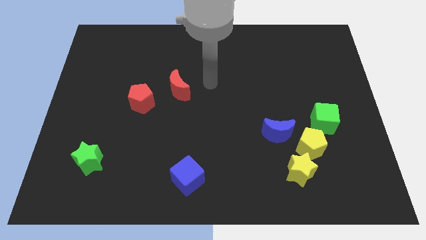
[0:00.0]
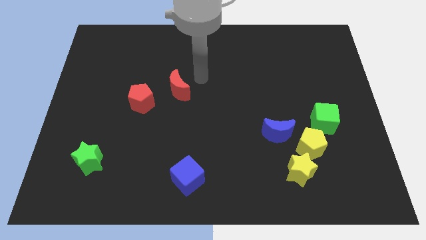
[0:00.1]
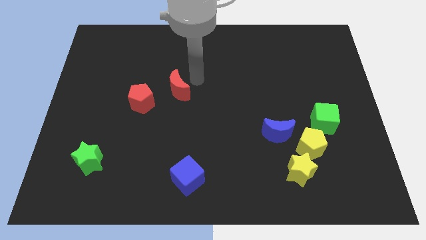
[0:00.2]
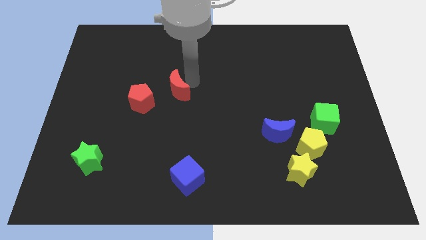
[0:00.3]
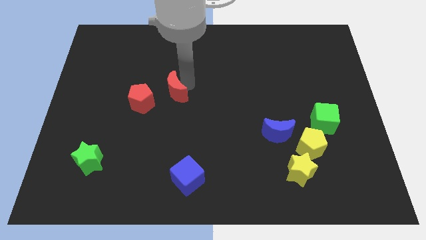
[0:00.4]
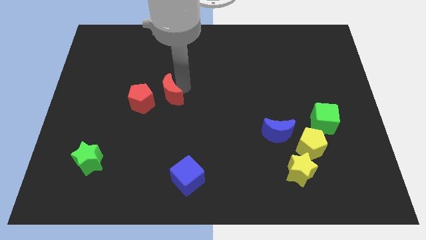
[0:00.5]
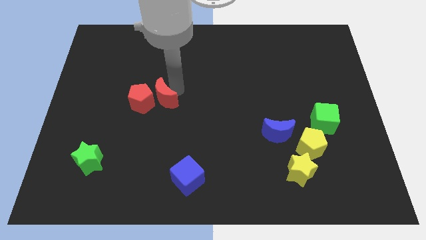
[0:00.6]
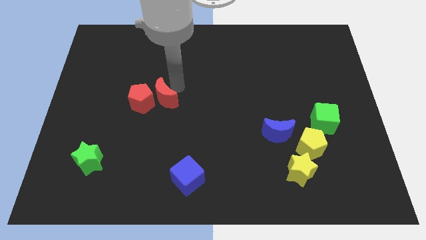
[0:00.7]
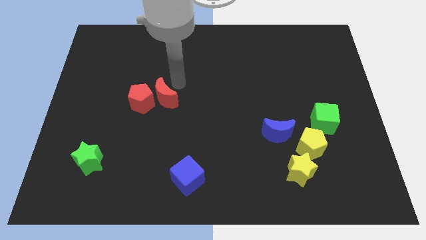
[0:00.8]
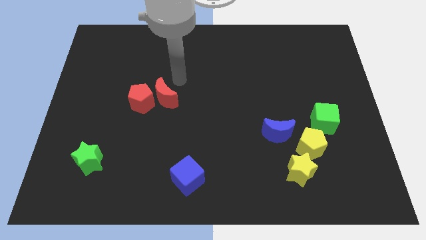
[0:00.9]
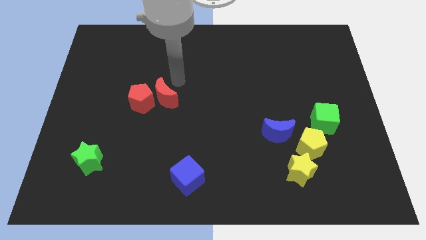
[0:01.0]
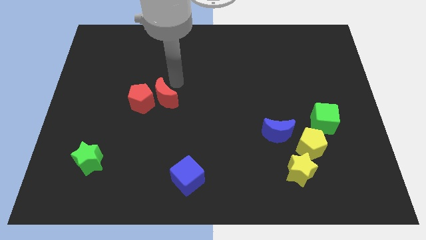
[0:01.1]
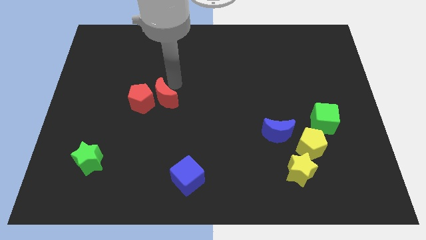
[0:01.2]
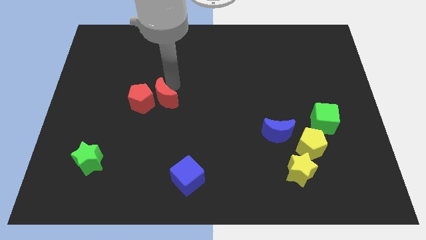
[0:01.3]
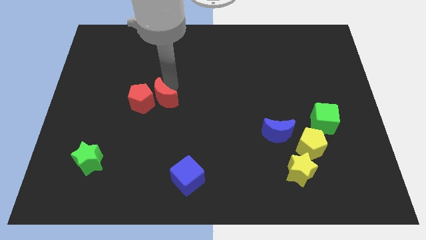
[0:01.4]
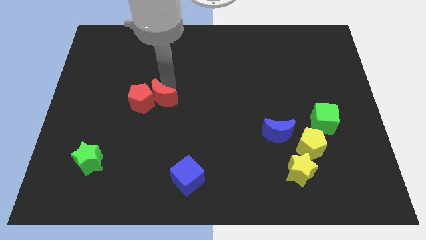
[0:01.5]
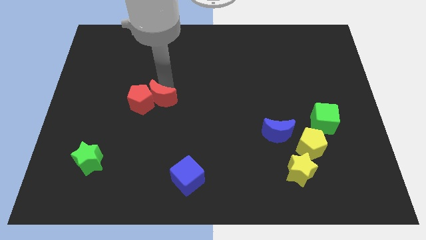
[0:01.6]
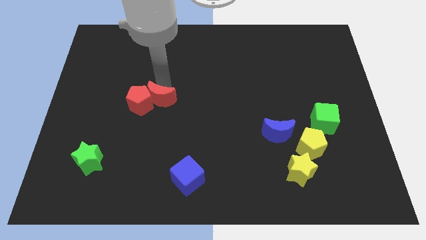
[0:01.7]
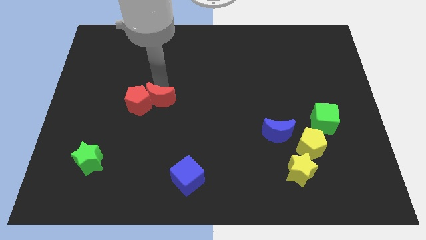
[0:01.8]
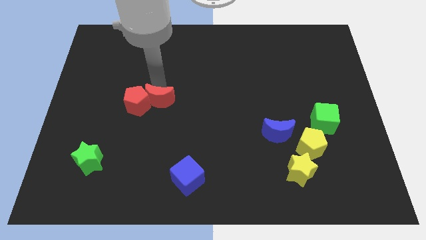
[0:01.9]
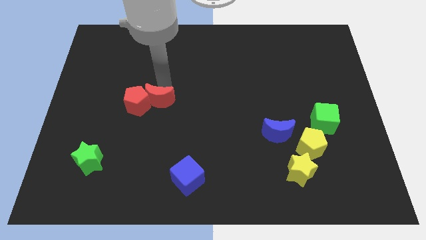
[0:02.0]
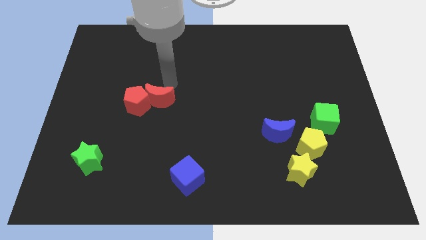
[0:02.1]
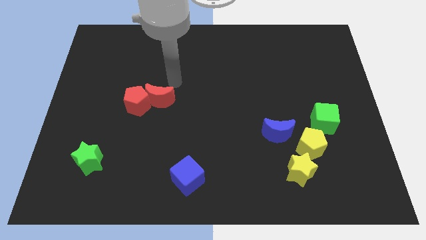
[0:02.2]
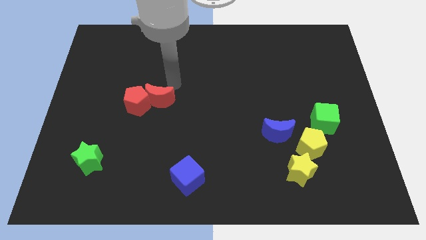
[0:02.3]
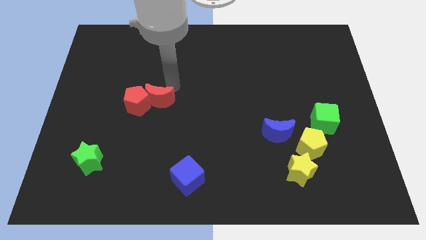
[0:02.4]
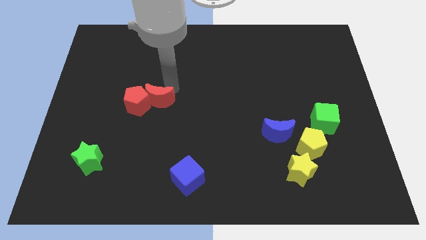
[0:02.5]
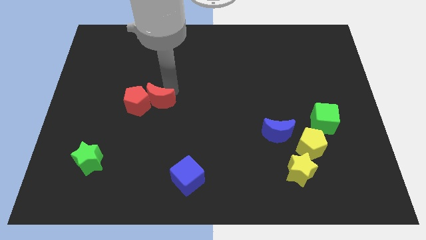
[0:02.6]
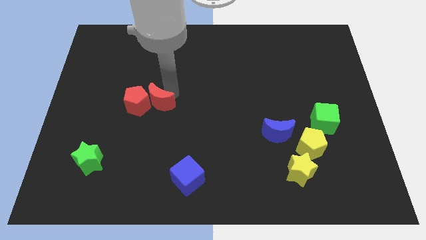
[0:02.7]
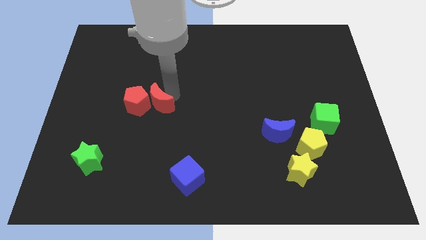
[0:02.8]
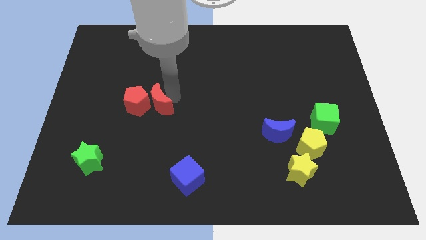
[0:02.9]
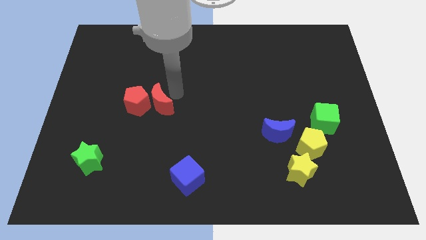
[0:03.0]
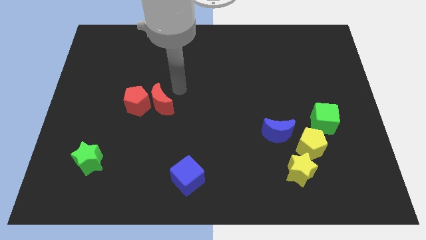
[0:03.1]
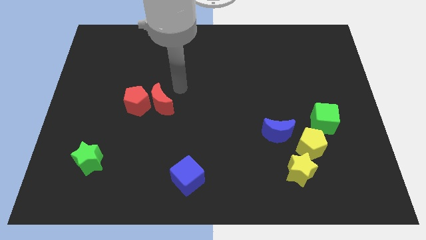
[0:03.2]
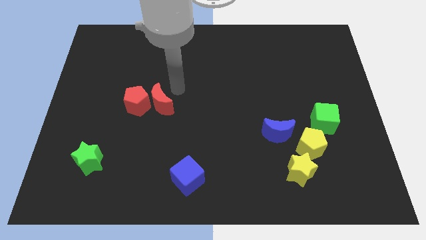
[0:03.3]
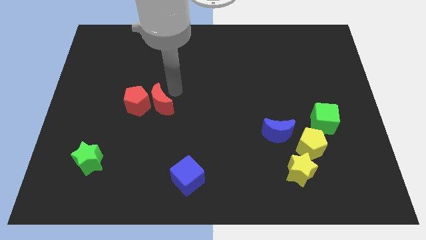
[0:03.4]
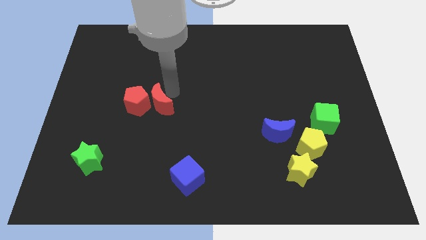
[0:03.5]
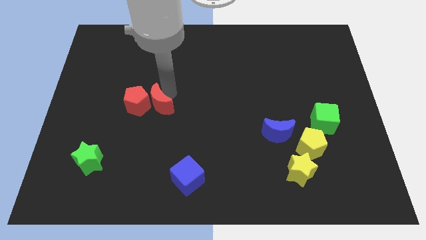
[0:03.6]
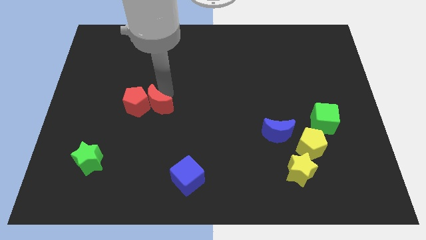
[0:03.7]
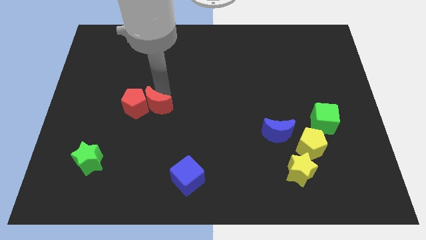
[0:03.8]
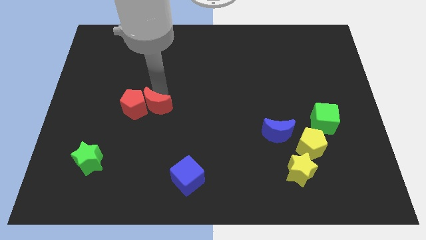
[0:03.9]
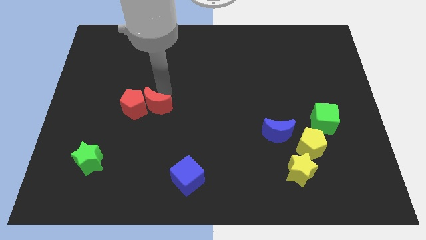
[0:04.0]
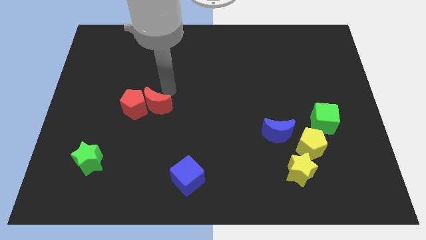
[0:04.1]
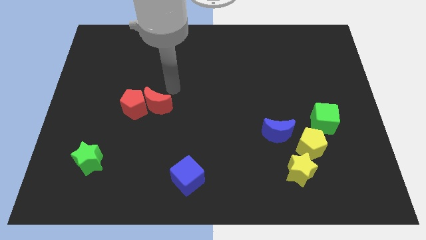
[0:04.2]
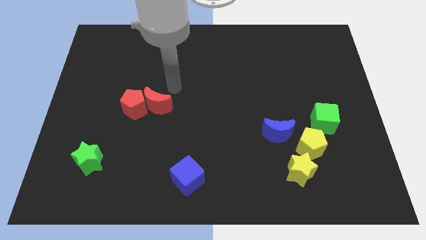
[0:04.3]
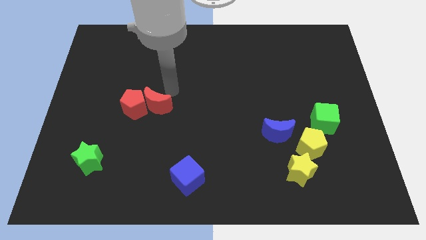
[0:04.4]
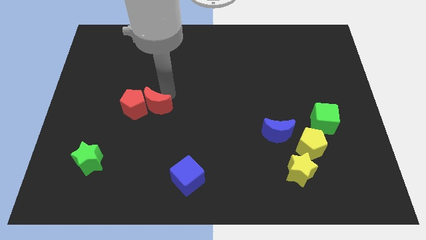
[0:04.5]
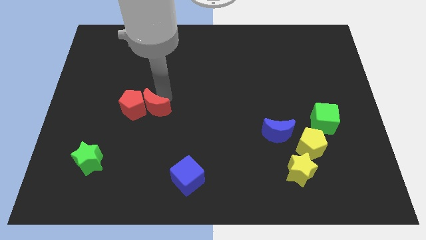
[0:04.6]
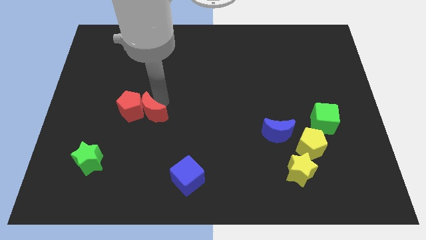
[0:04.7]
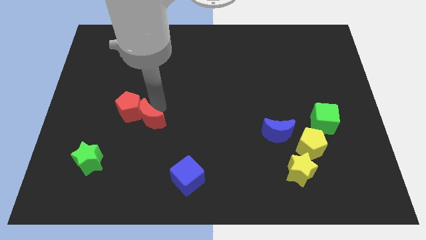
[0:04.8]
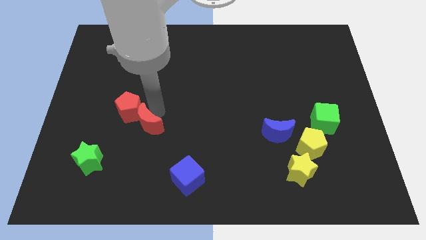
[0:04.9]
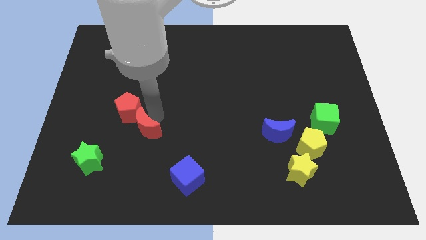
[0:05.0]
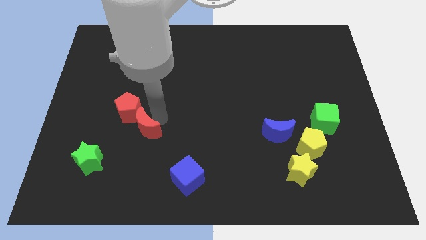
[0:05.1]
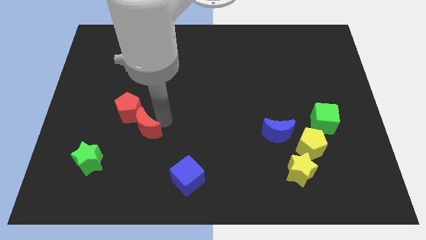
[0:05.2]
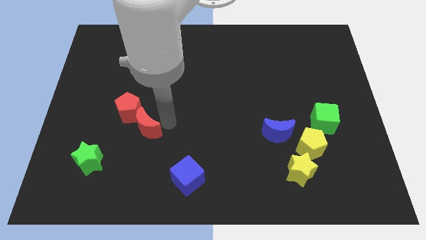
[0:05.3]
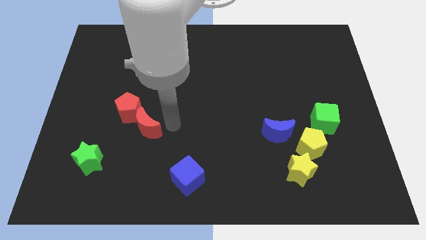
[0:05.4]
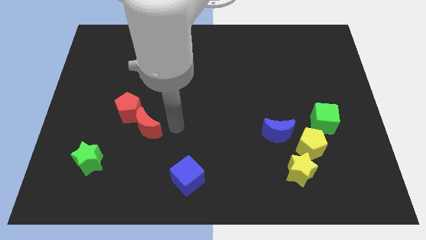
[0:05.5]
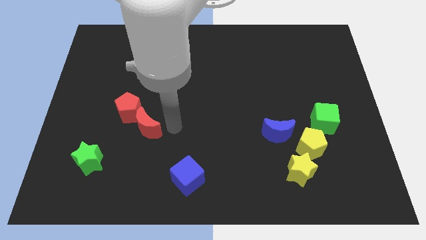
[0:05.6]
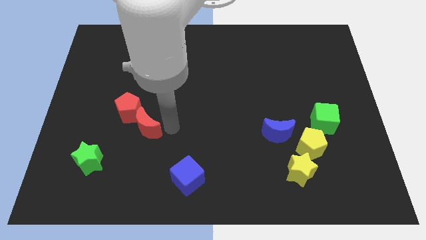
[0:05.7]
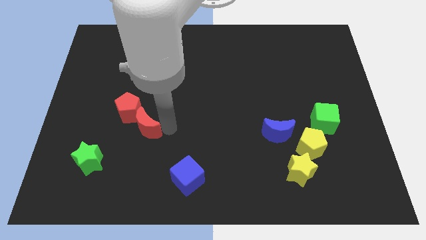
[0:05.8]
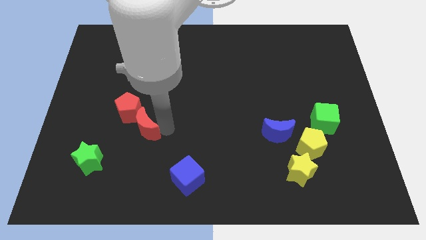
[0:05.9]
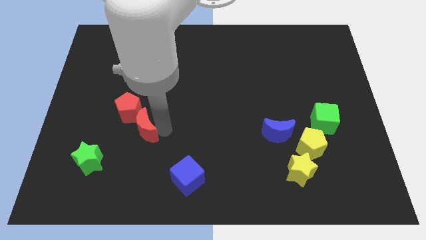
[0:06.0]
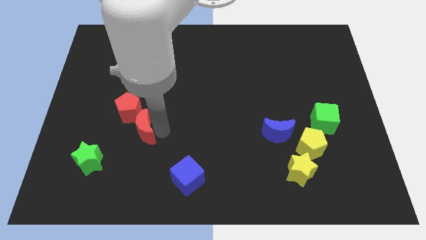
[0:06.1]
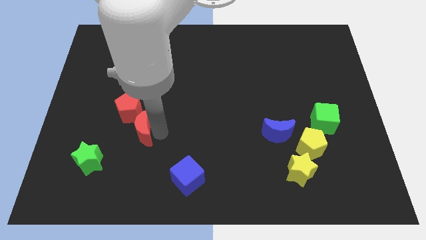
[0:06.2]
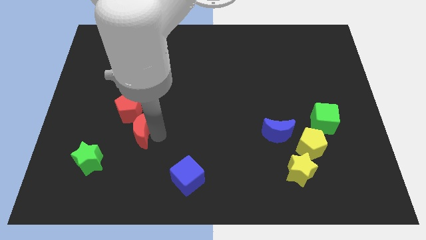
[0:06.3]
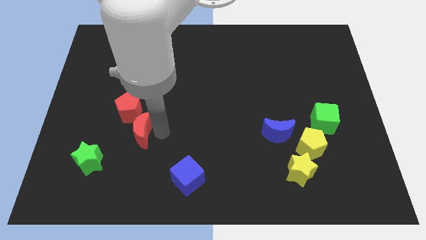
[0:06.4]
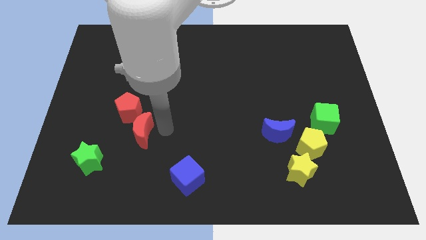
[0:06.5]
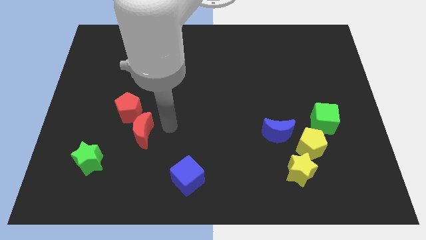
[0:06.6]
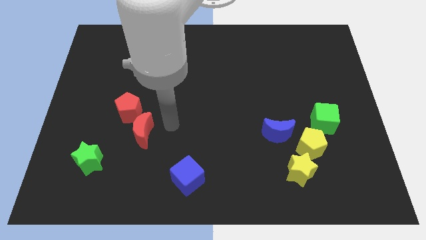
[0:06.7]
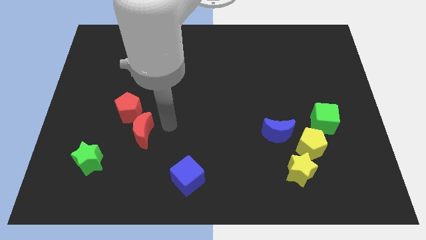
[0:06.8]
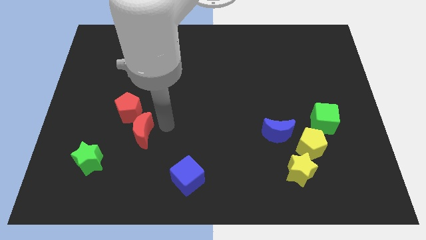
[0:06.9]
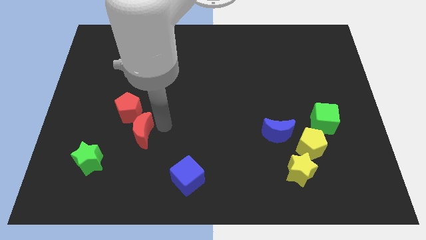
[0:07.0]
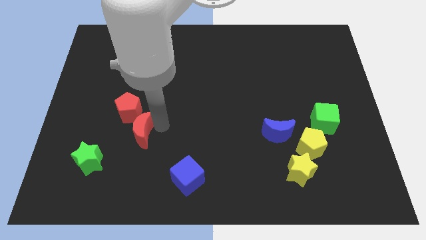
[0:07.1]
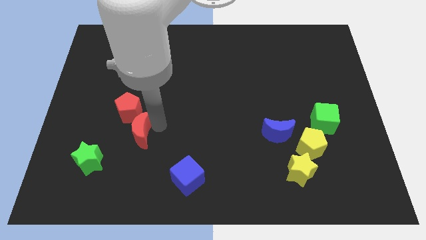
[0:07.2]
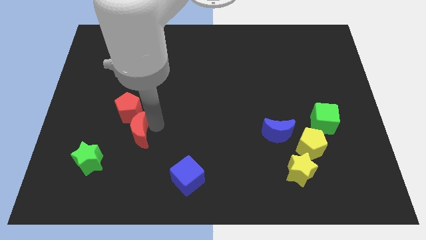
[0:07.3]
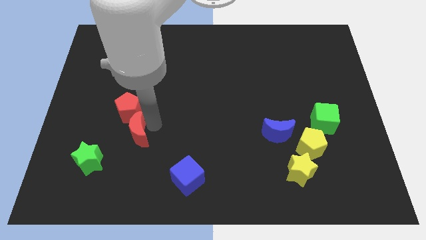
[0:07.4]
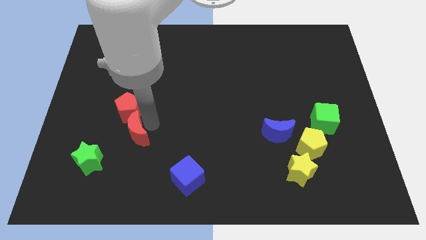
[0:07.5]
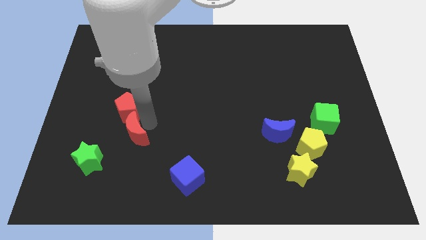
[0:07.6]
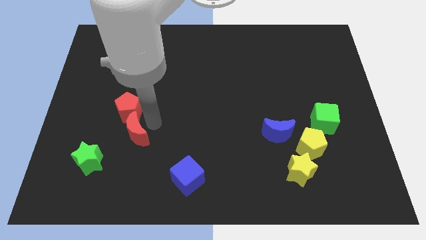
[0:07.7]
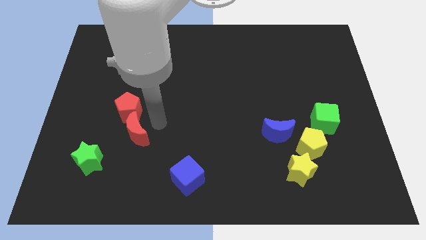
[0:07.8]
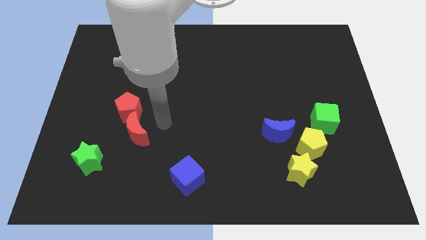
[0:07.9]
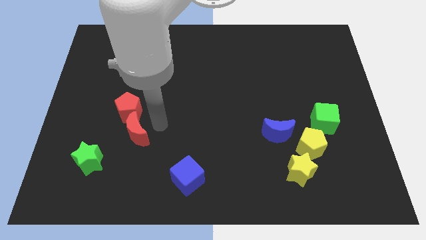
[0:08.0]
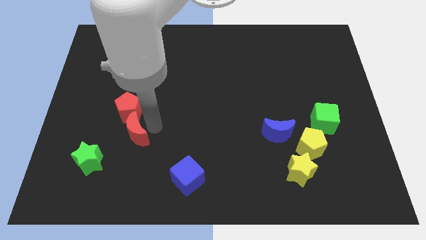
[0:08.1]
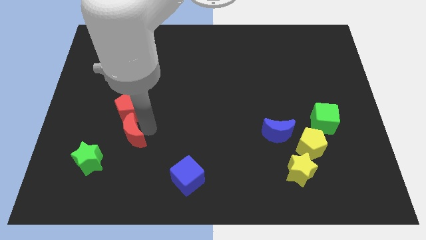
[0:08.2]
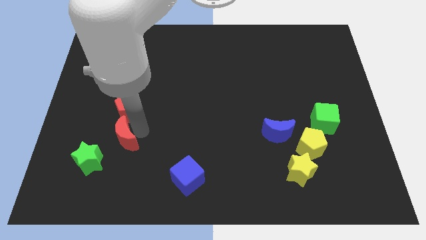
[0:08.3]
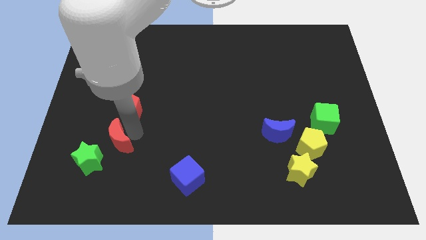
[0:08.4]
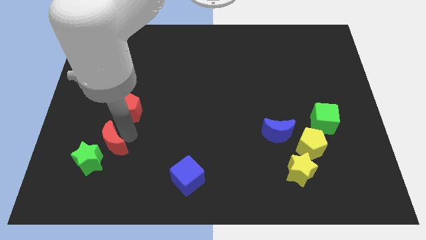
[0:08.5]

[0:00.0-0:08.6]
put the red moon next to the green star
